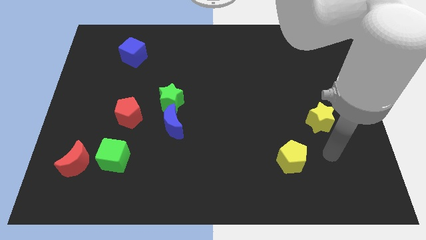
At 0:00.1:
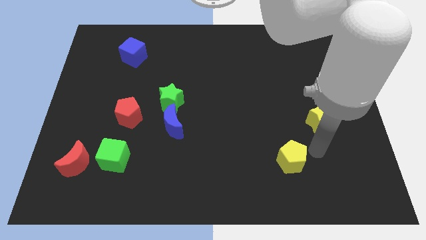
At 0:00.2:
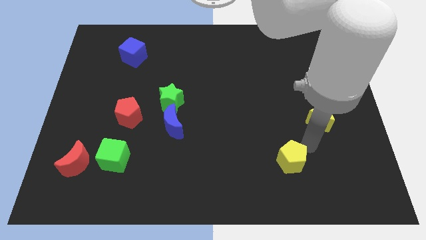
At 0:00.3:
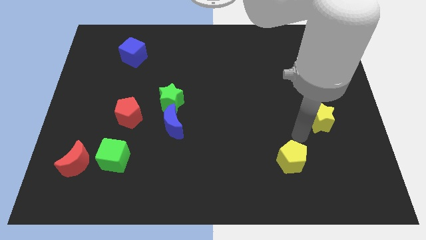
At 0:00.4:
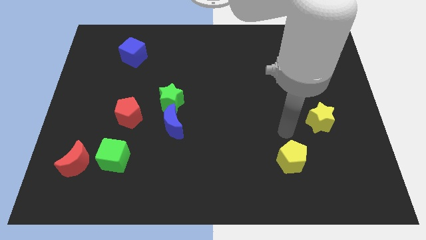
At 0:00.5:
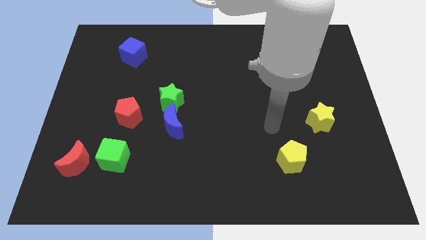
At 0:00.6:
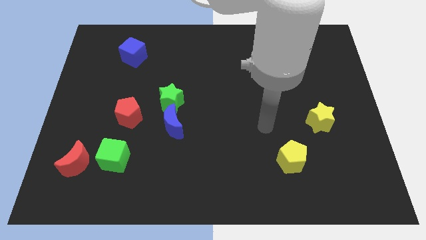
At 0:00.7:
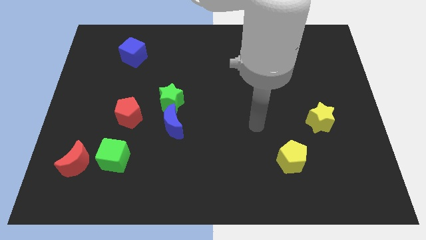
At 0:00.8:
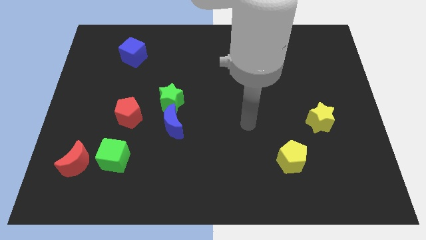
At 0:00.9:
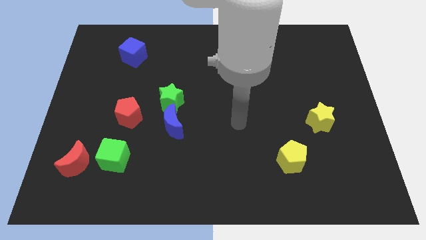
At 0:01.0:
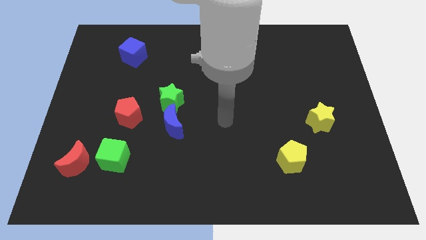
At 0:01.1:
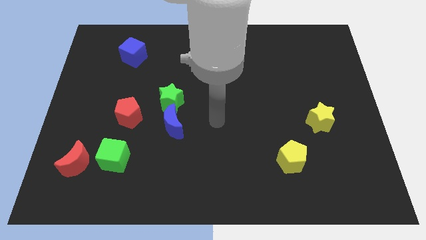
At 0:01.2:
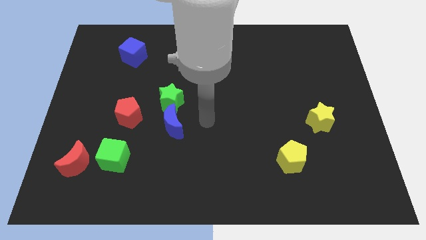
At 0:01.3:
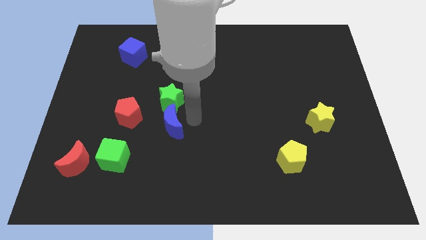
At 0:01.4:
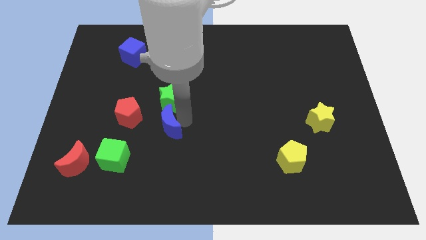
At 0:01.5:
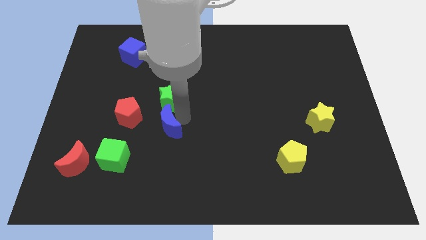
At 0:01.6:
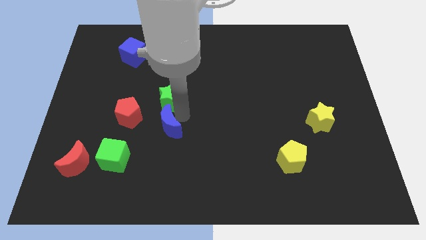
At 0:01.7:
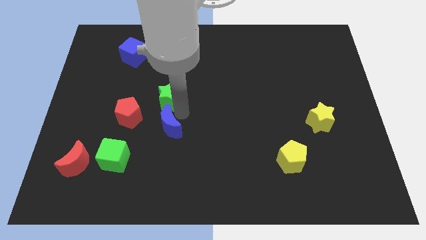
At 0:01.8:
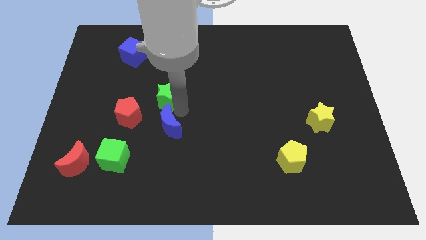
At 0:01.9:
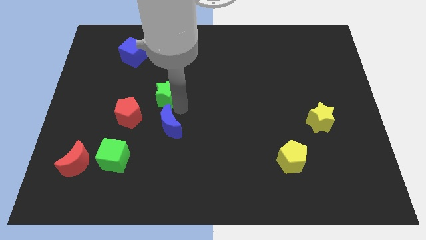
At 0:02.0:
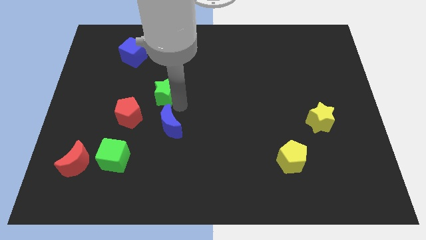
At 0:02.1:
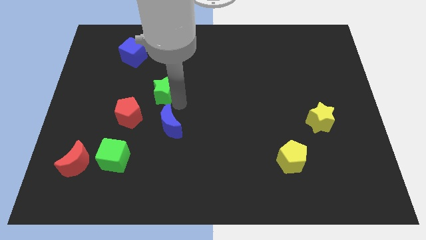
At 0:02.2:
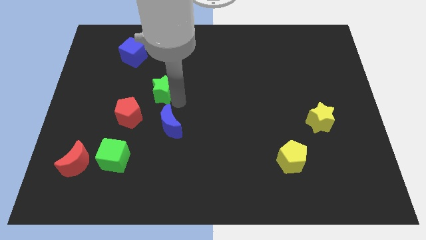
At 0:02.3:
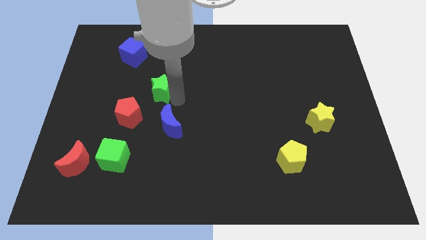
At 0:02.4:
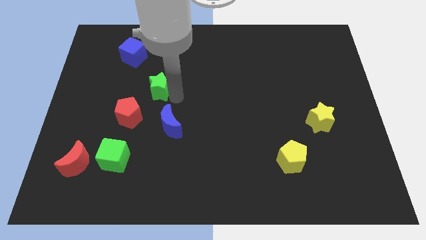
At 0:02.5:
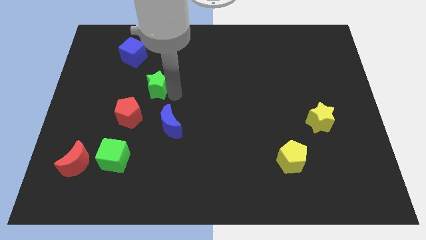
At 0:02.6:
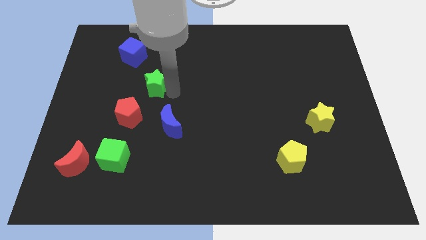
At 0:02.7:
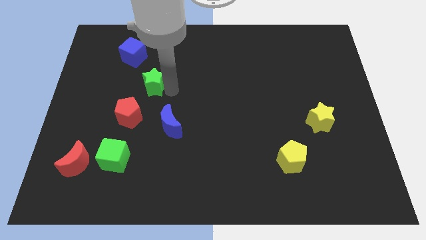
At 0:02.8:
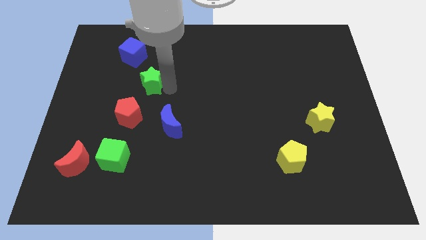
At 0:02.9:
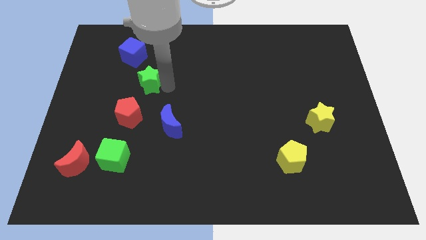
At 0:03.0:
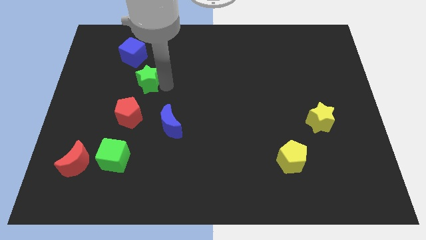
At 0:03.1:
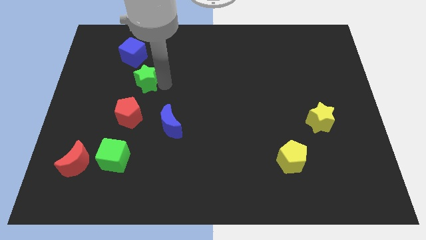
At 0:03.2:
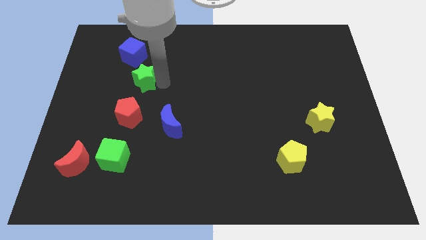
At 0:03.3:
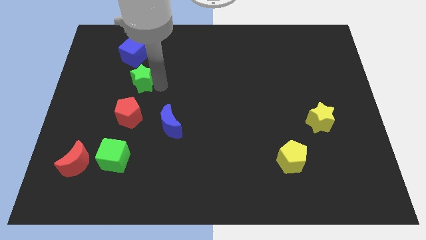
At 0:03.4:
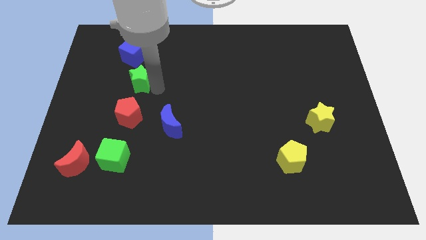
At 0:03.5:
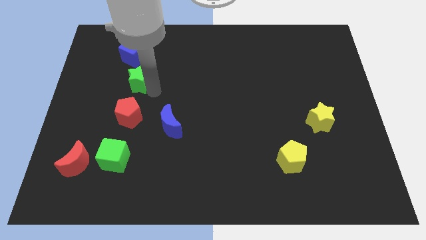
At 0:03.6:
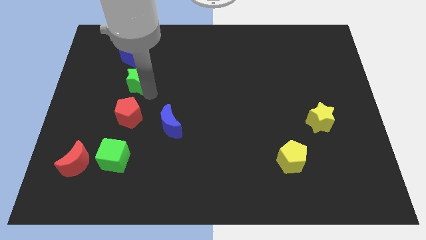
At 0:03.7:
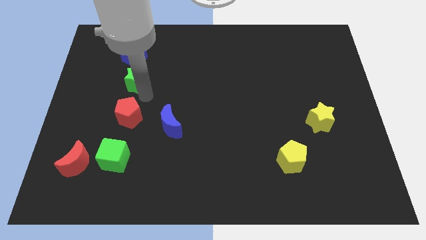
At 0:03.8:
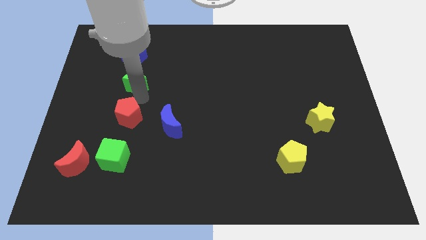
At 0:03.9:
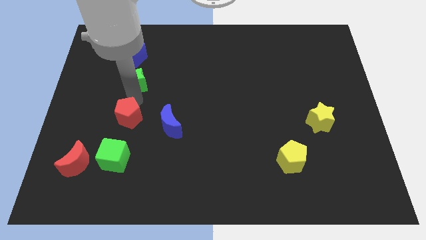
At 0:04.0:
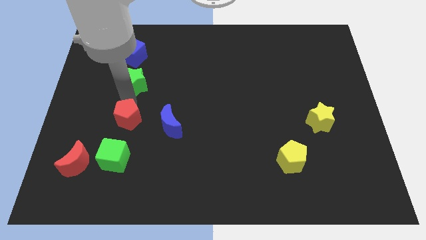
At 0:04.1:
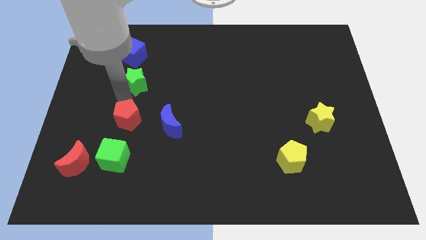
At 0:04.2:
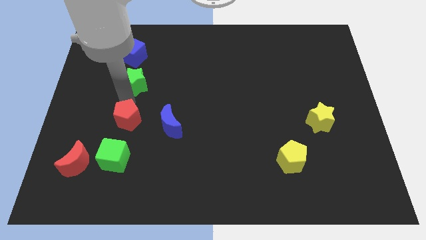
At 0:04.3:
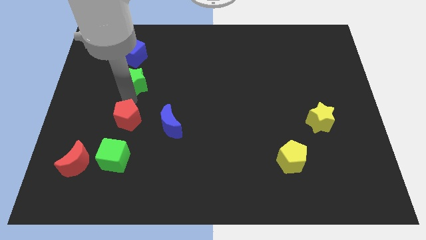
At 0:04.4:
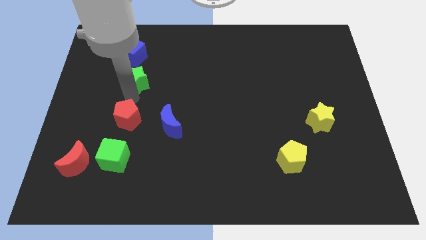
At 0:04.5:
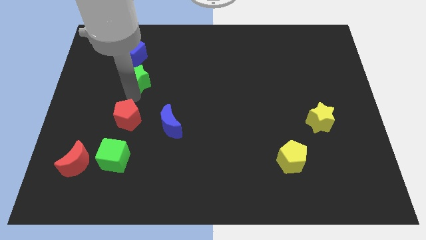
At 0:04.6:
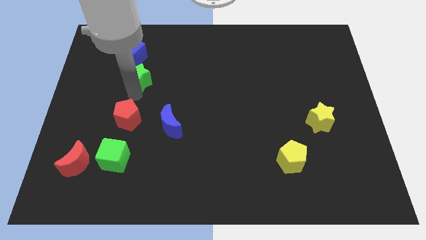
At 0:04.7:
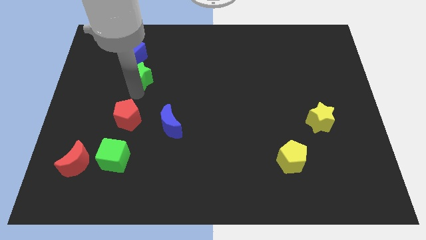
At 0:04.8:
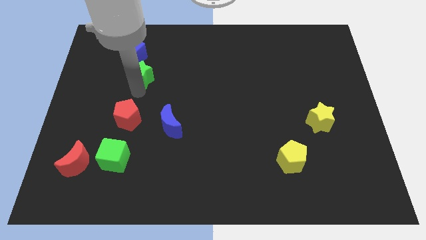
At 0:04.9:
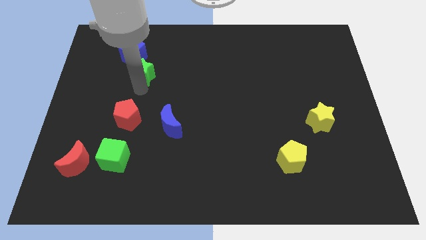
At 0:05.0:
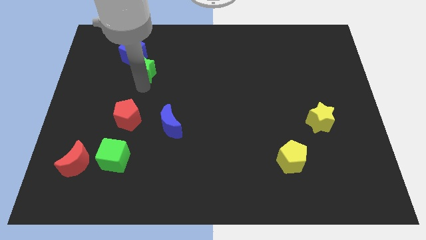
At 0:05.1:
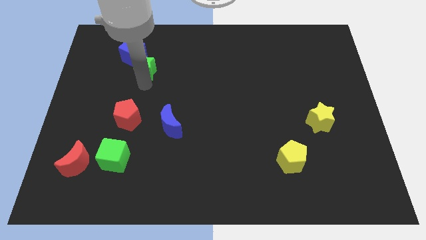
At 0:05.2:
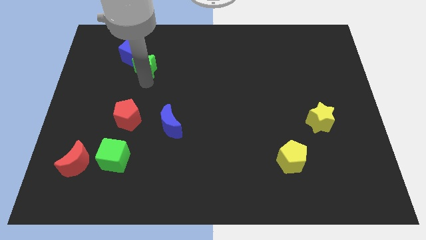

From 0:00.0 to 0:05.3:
slide the green star towards the blue cube

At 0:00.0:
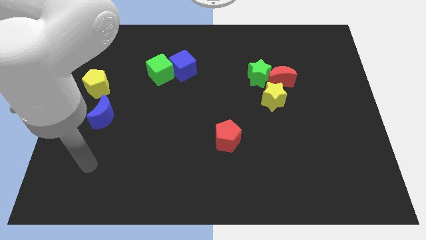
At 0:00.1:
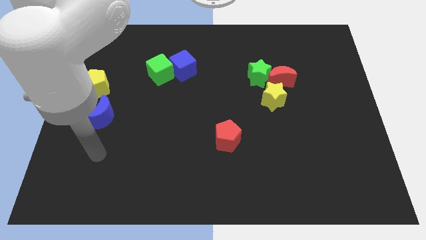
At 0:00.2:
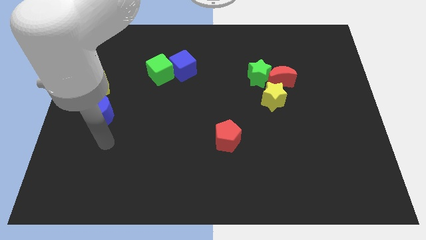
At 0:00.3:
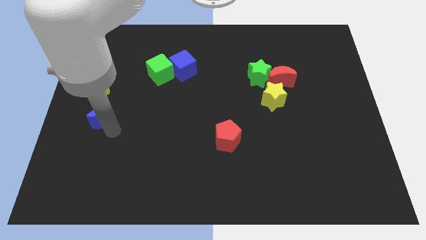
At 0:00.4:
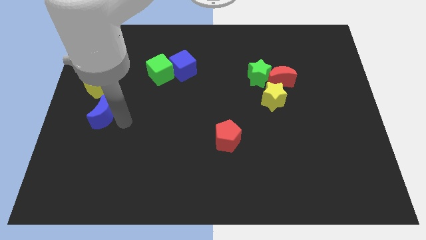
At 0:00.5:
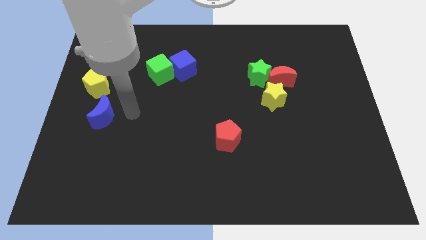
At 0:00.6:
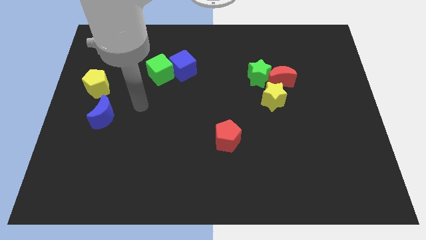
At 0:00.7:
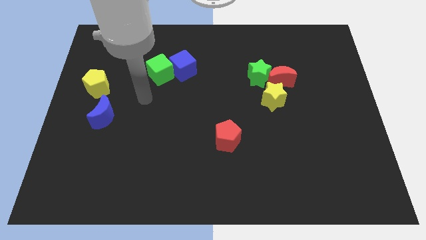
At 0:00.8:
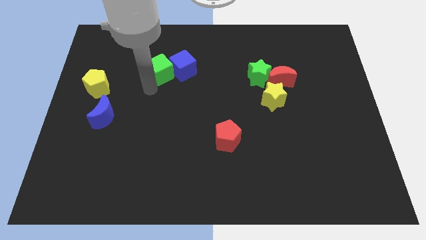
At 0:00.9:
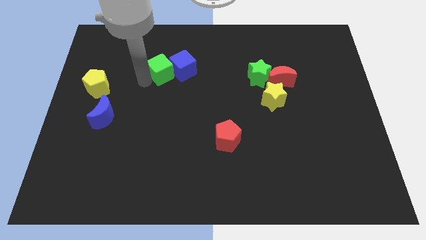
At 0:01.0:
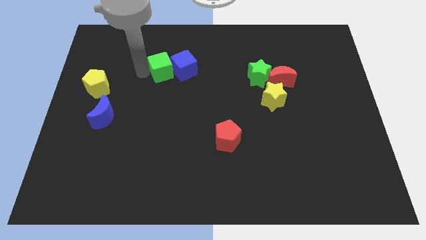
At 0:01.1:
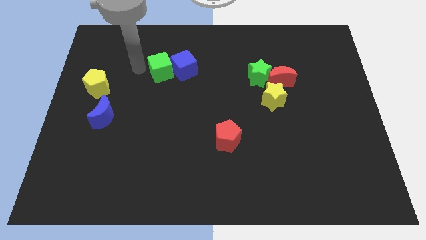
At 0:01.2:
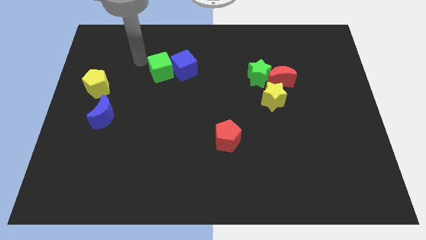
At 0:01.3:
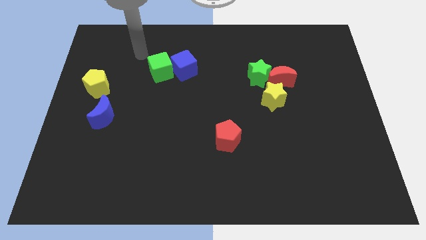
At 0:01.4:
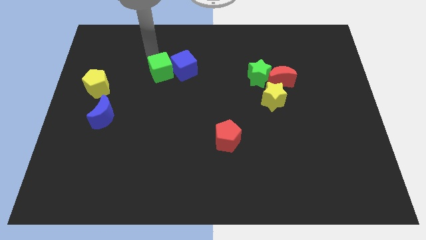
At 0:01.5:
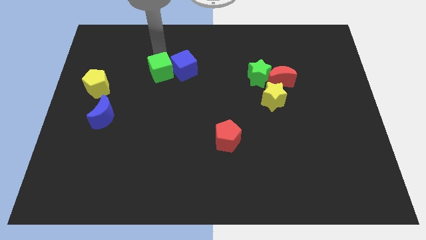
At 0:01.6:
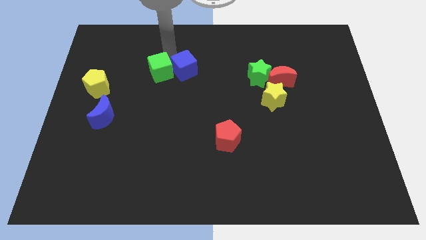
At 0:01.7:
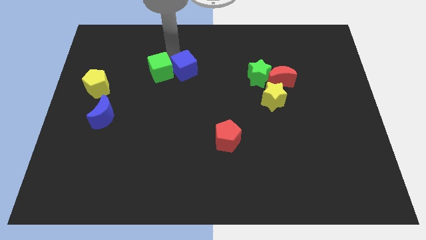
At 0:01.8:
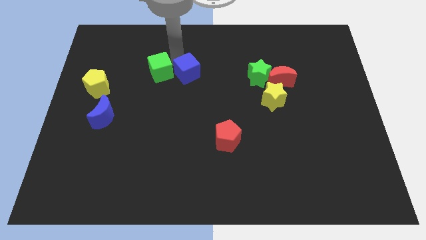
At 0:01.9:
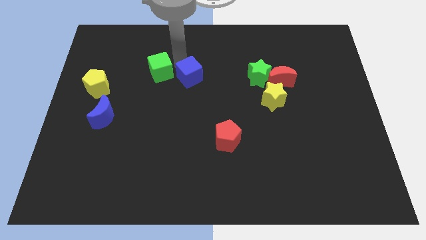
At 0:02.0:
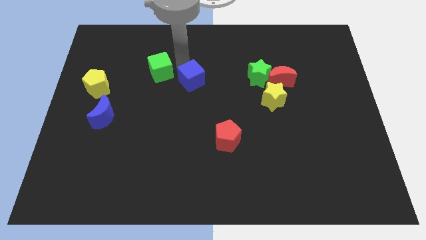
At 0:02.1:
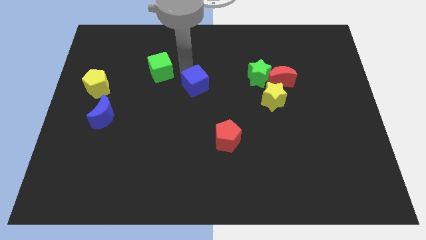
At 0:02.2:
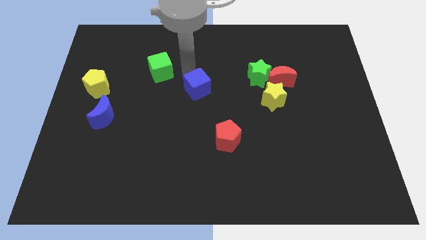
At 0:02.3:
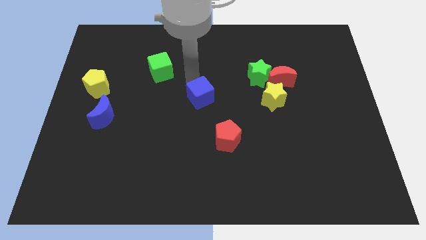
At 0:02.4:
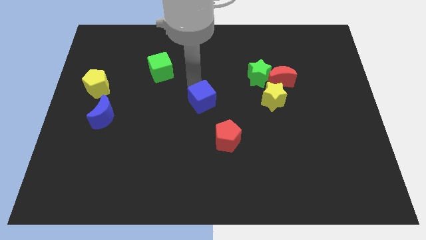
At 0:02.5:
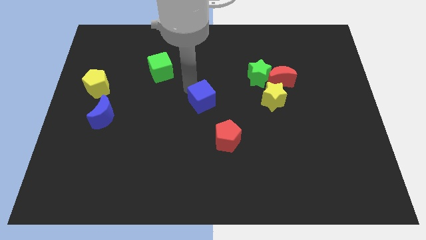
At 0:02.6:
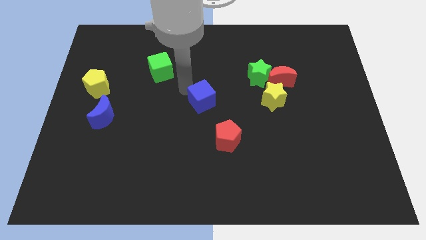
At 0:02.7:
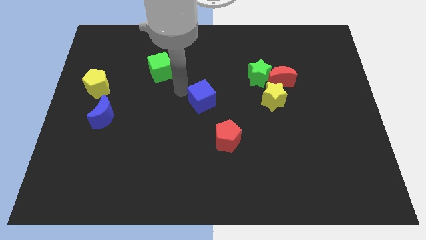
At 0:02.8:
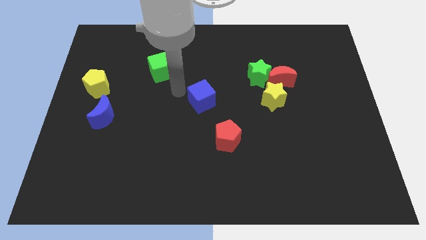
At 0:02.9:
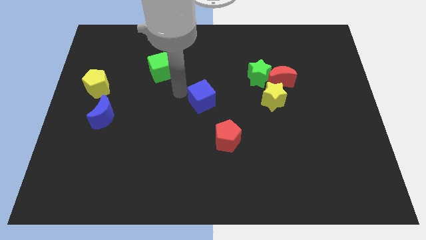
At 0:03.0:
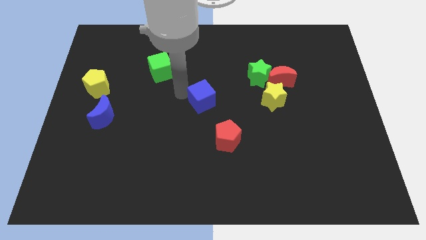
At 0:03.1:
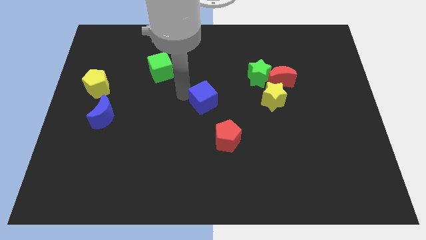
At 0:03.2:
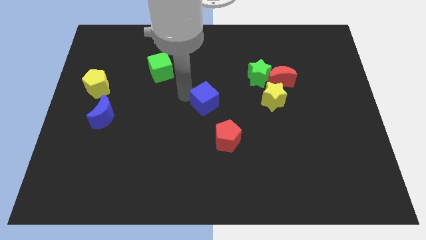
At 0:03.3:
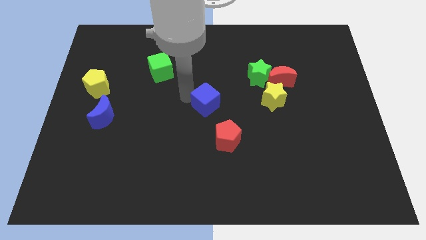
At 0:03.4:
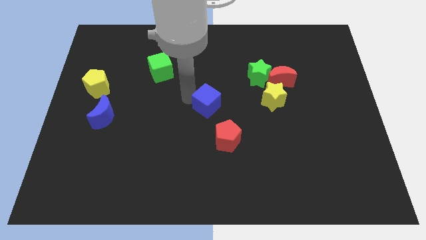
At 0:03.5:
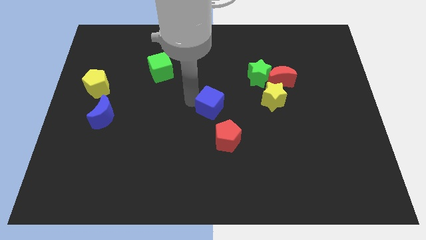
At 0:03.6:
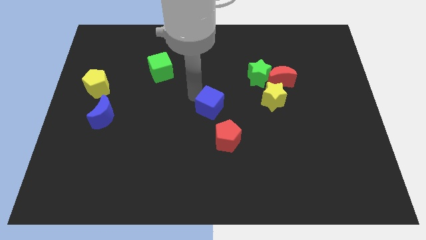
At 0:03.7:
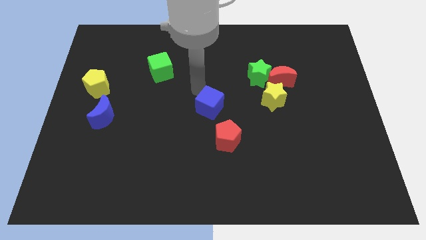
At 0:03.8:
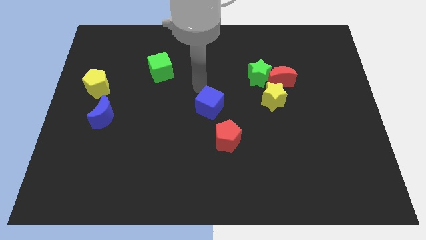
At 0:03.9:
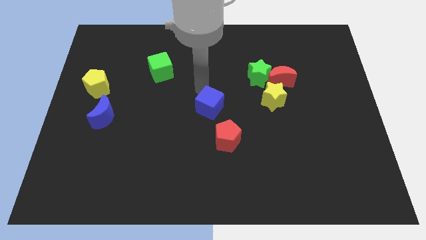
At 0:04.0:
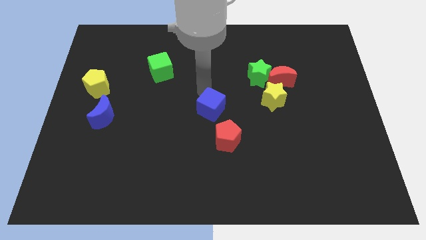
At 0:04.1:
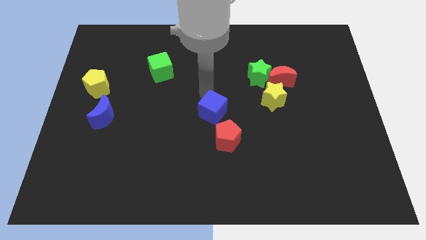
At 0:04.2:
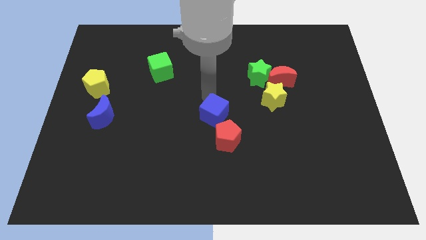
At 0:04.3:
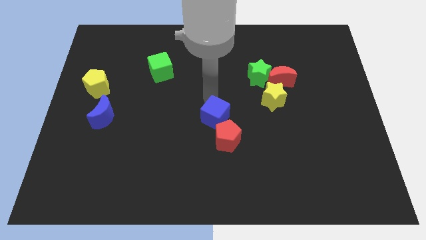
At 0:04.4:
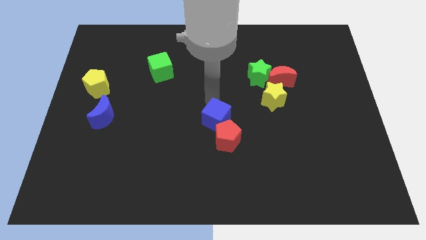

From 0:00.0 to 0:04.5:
put the blue cube close to the red pentagon
